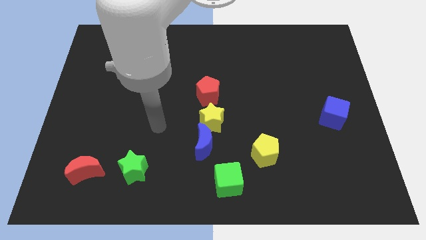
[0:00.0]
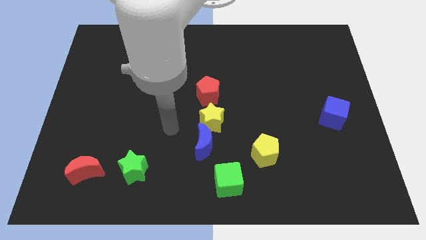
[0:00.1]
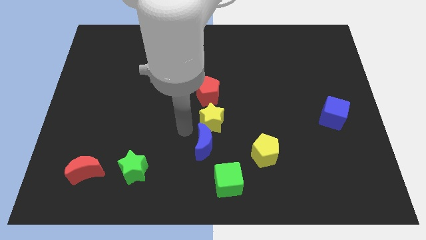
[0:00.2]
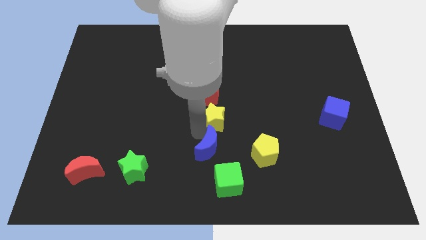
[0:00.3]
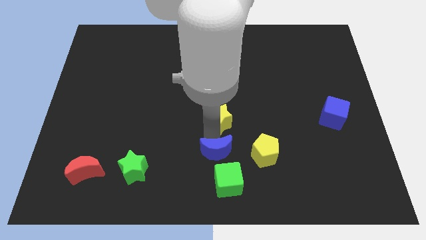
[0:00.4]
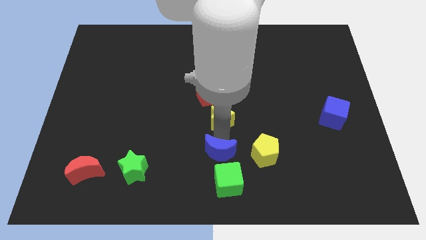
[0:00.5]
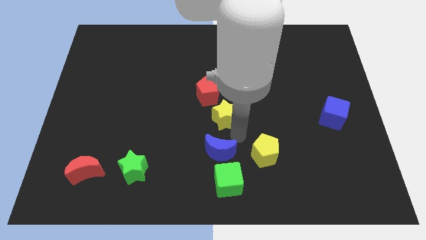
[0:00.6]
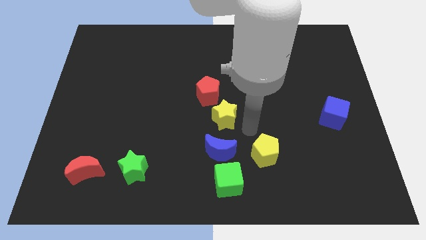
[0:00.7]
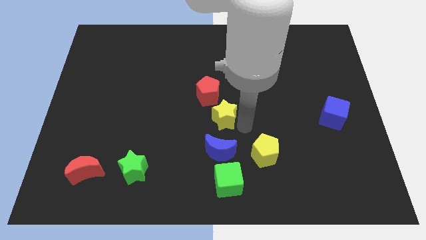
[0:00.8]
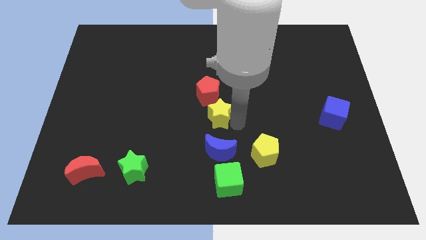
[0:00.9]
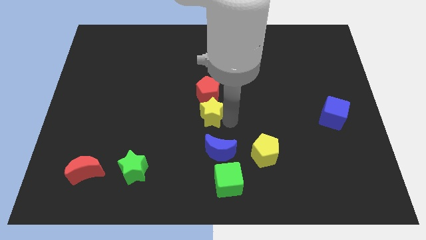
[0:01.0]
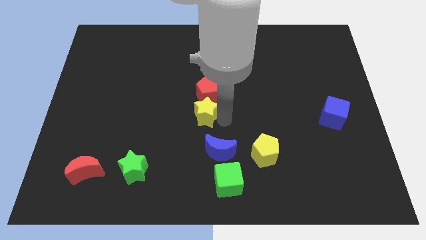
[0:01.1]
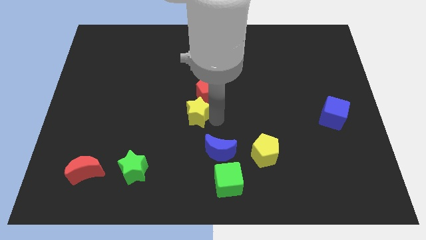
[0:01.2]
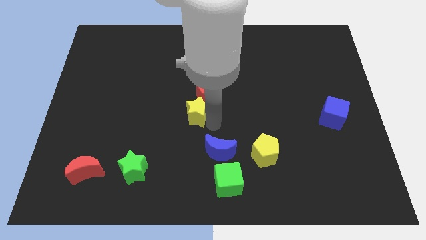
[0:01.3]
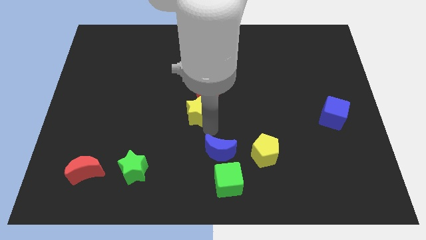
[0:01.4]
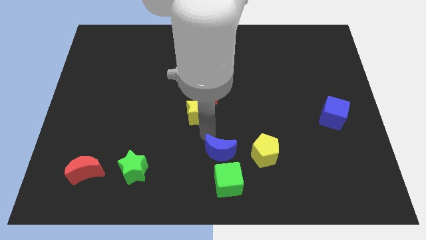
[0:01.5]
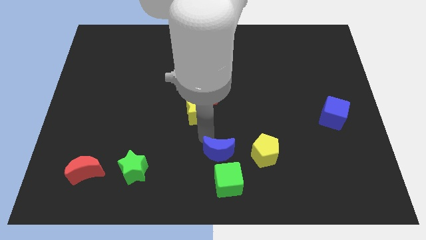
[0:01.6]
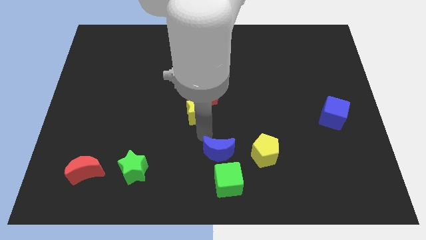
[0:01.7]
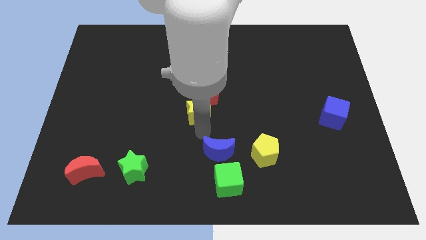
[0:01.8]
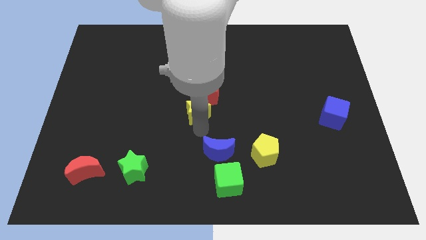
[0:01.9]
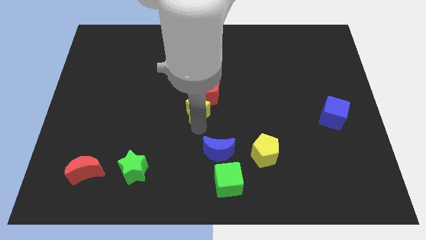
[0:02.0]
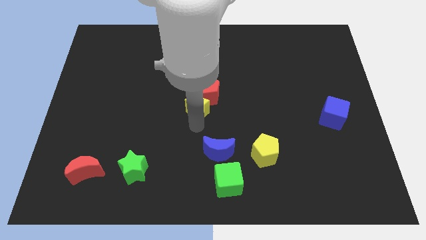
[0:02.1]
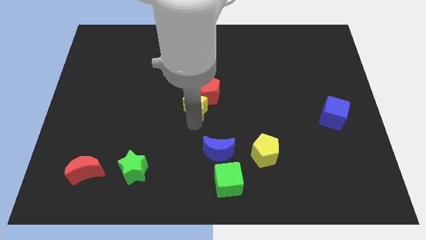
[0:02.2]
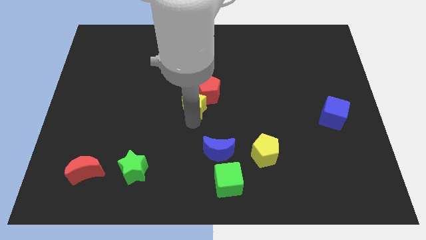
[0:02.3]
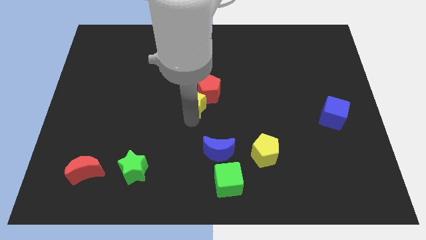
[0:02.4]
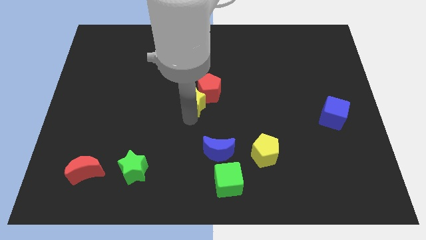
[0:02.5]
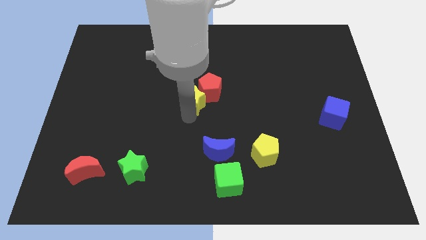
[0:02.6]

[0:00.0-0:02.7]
slide the yellow star upwards and left a little bit

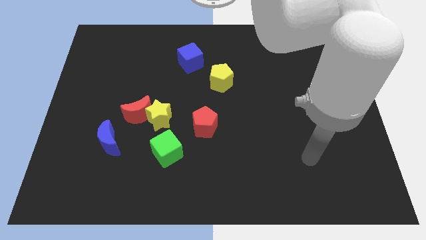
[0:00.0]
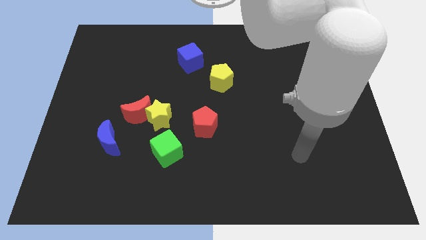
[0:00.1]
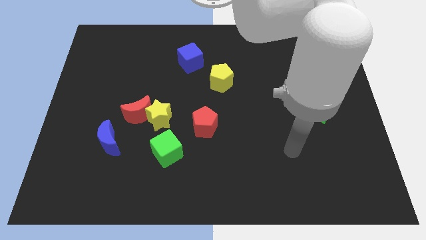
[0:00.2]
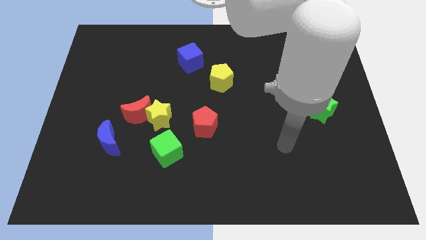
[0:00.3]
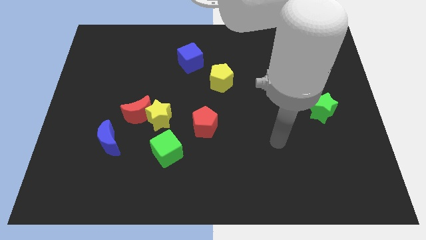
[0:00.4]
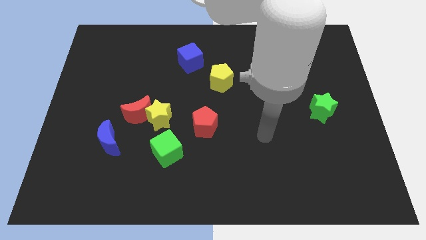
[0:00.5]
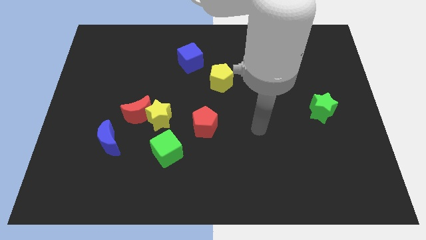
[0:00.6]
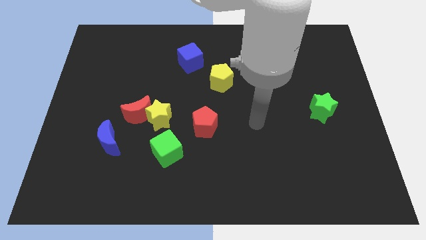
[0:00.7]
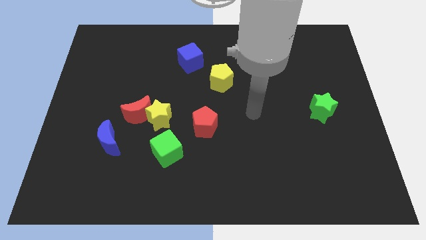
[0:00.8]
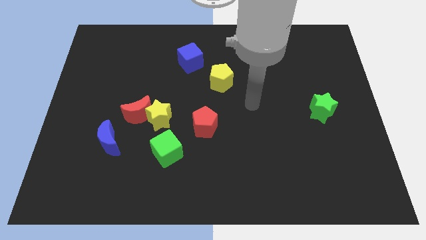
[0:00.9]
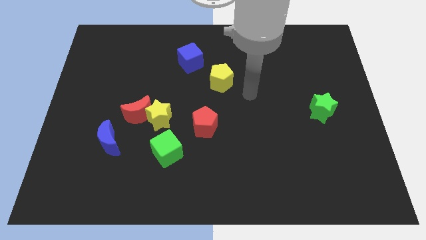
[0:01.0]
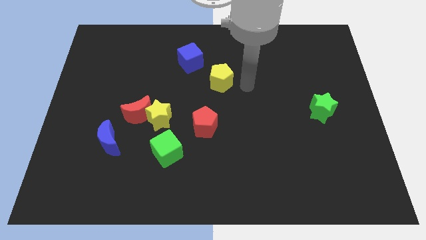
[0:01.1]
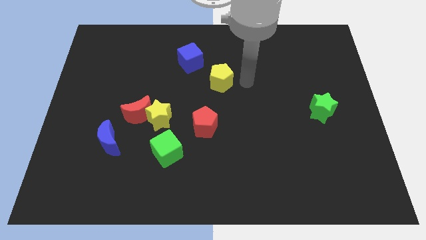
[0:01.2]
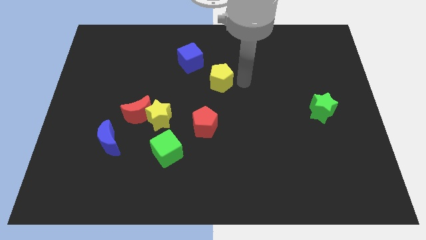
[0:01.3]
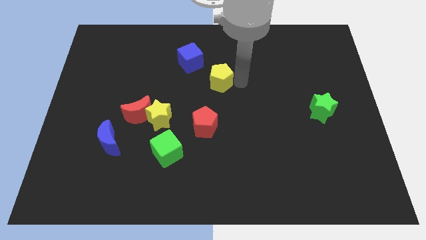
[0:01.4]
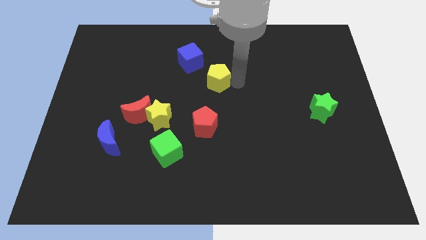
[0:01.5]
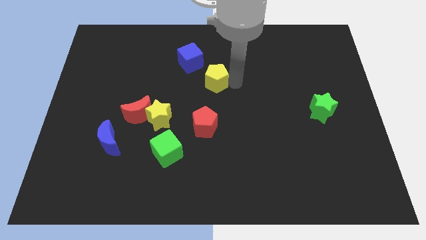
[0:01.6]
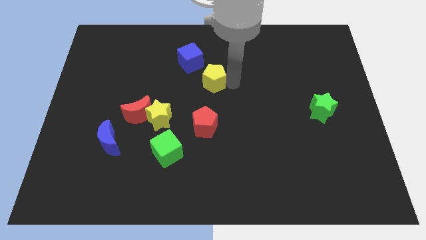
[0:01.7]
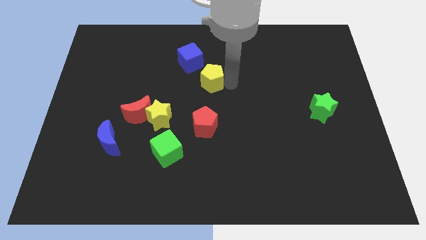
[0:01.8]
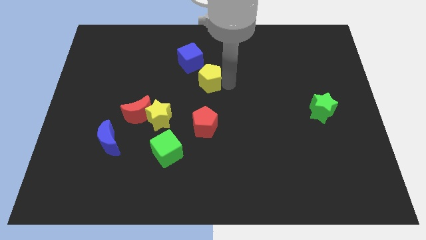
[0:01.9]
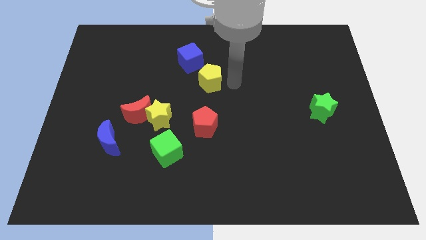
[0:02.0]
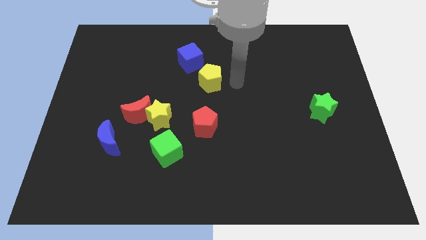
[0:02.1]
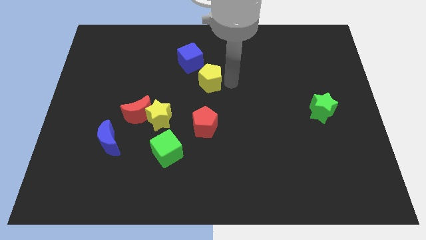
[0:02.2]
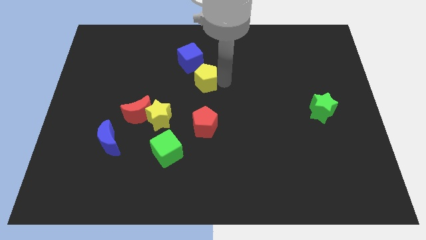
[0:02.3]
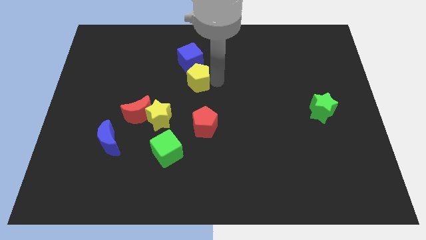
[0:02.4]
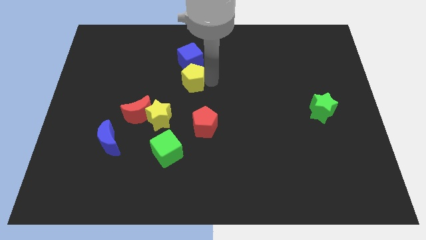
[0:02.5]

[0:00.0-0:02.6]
slightly push the yellow pentagon left

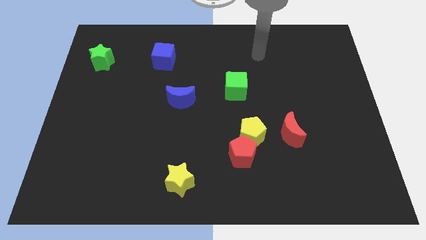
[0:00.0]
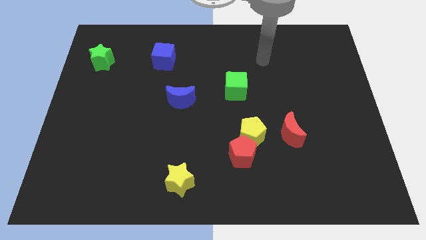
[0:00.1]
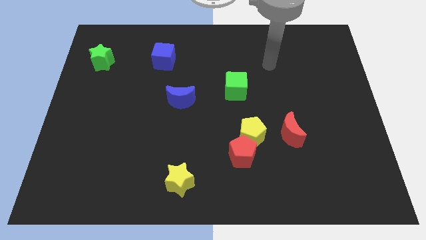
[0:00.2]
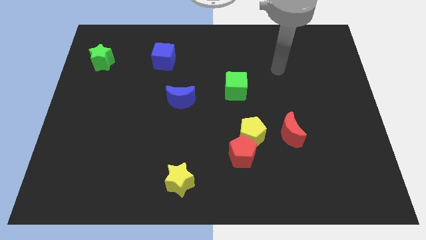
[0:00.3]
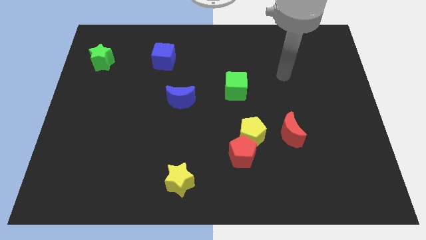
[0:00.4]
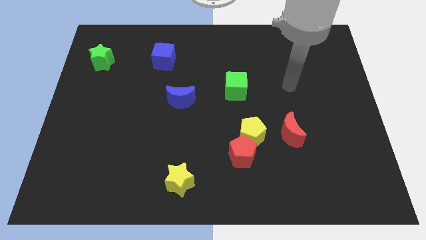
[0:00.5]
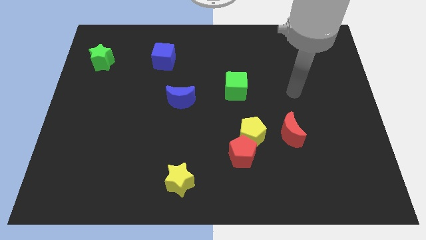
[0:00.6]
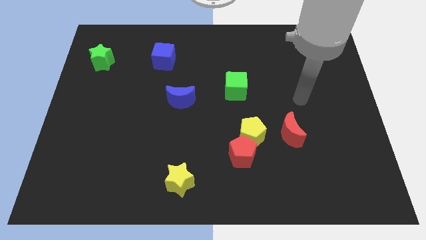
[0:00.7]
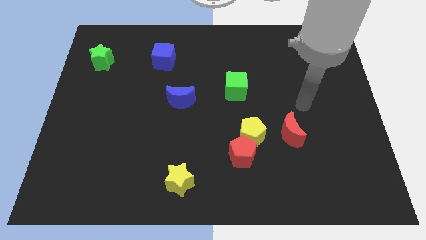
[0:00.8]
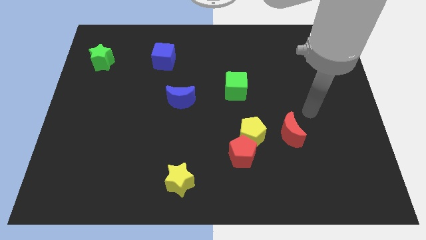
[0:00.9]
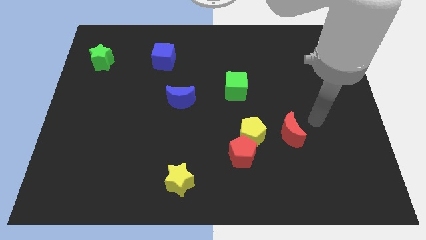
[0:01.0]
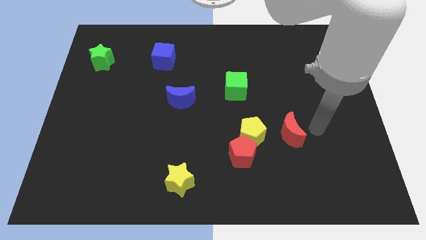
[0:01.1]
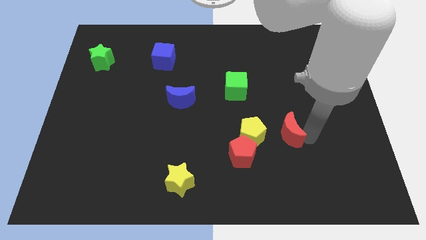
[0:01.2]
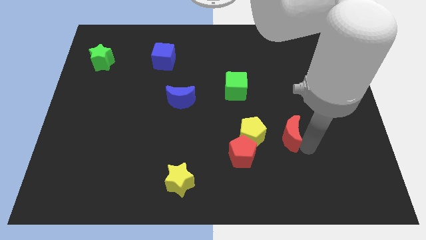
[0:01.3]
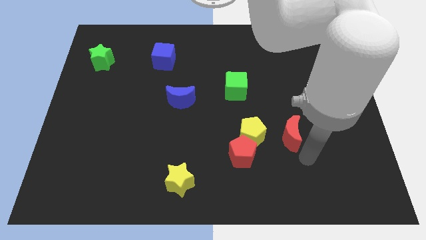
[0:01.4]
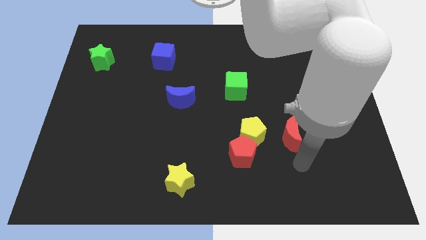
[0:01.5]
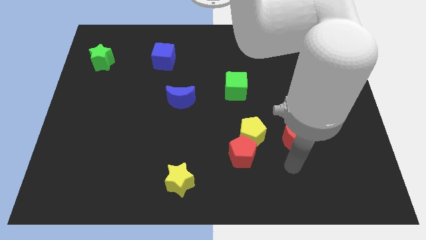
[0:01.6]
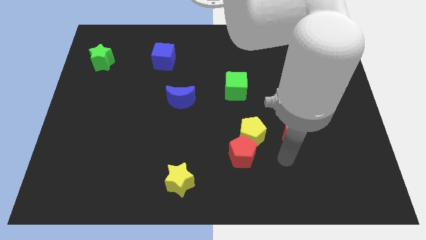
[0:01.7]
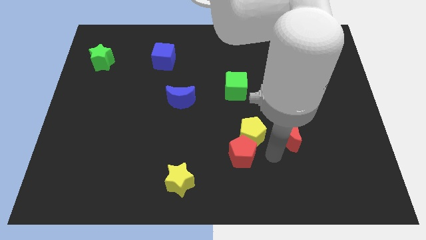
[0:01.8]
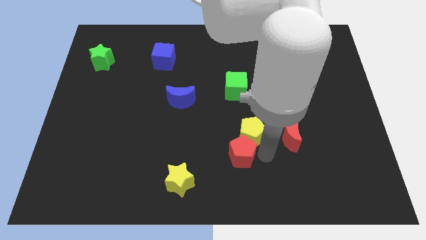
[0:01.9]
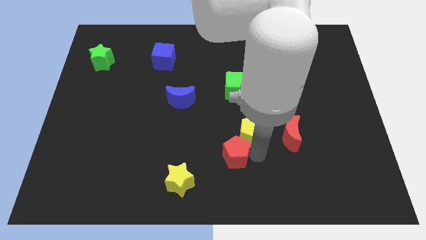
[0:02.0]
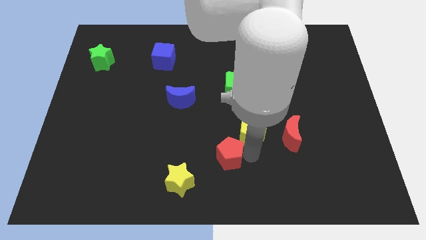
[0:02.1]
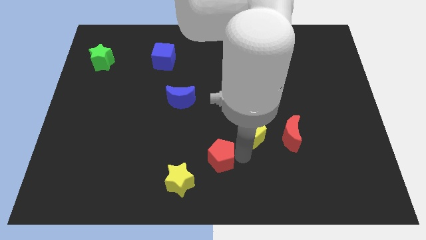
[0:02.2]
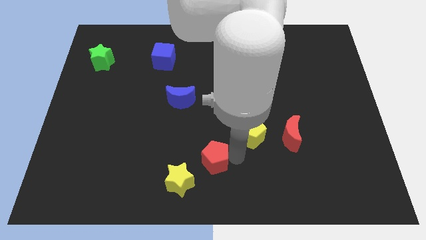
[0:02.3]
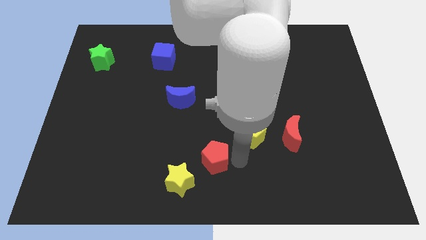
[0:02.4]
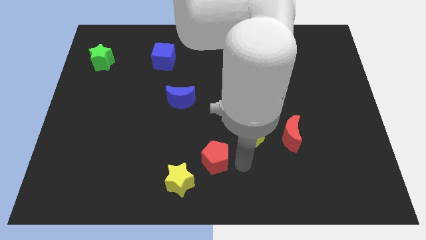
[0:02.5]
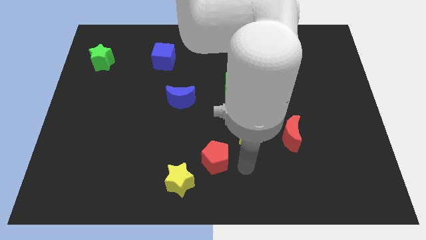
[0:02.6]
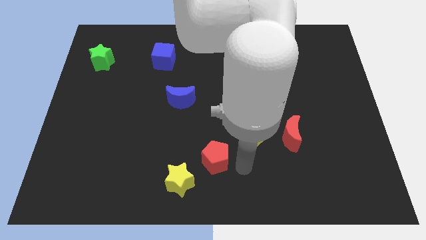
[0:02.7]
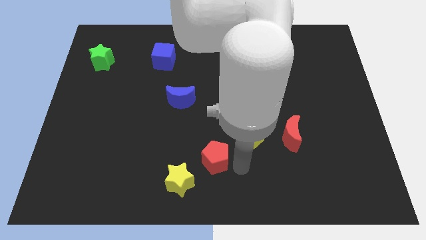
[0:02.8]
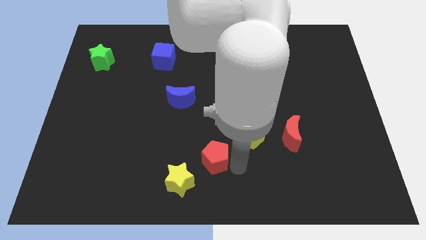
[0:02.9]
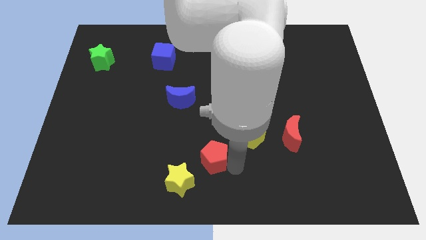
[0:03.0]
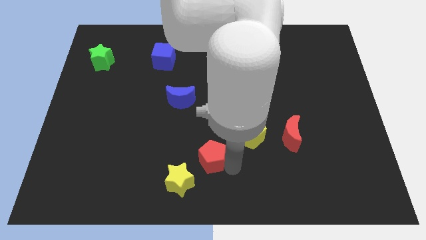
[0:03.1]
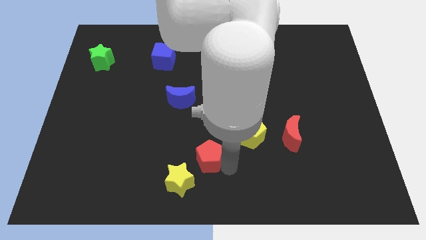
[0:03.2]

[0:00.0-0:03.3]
move the red pentagon to the left a little bit
